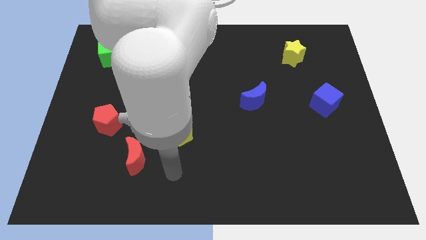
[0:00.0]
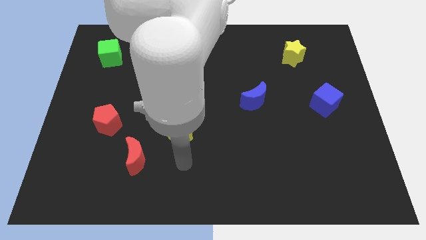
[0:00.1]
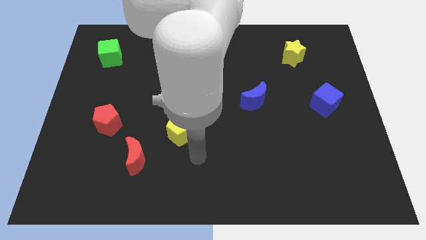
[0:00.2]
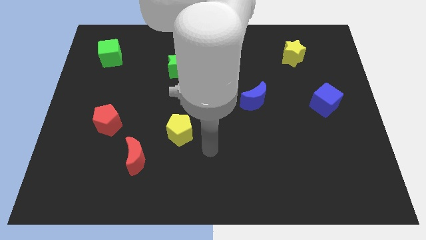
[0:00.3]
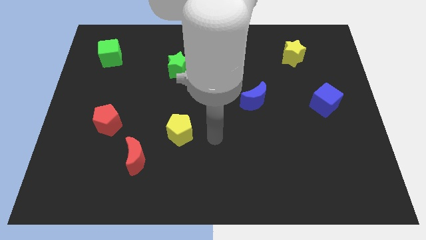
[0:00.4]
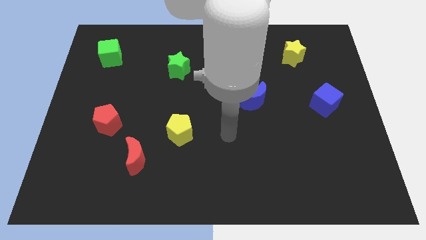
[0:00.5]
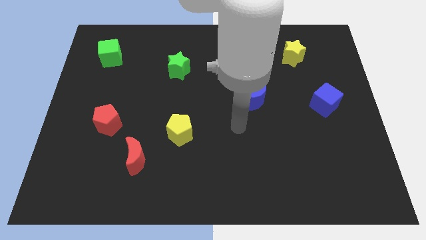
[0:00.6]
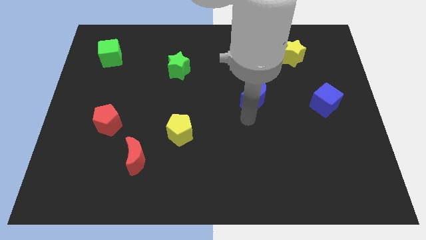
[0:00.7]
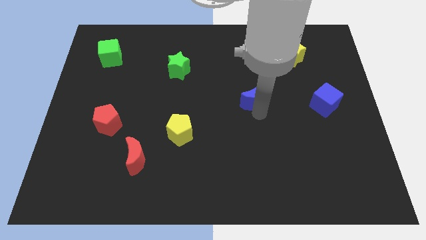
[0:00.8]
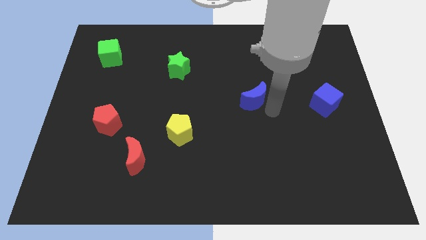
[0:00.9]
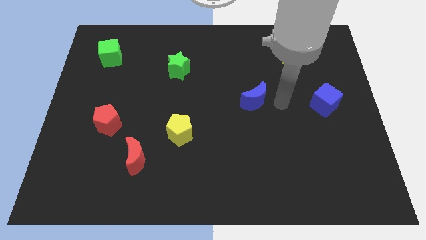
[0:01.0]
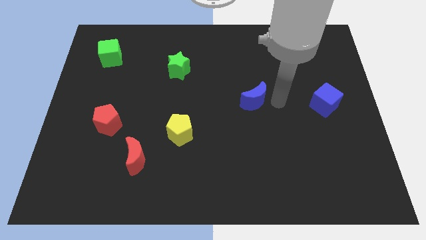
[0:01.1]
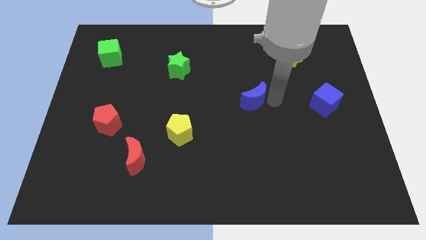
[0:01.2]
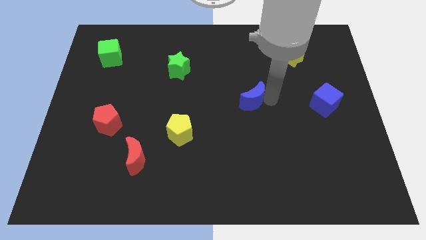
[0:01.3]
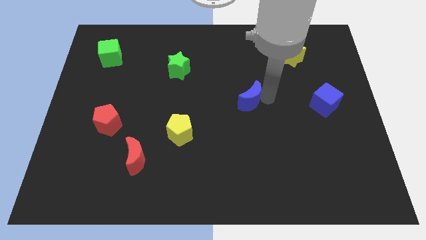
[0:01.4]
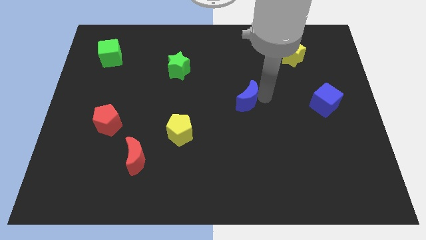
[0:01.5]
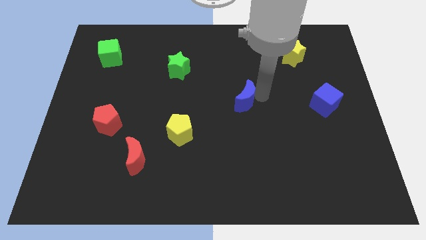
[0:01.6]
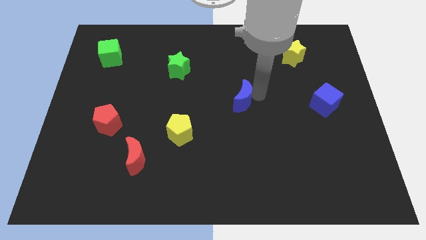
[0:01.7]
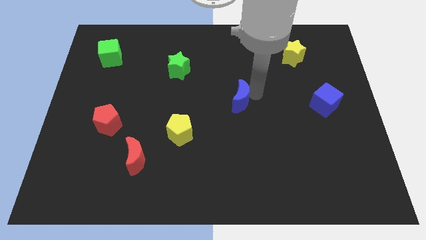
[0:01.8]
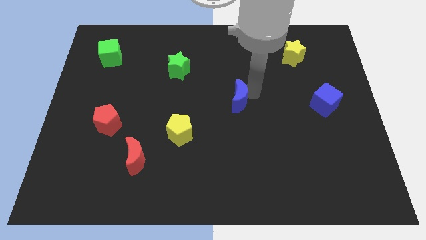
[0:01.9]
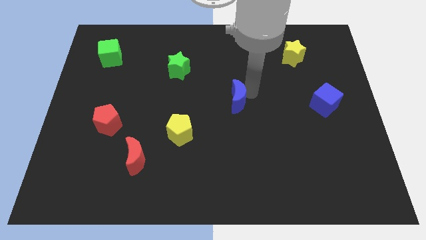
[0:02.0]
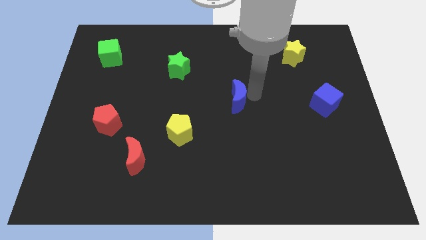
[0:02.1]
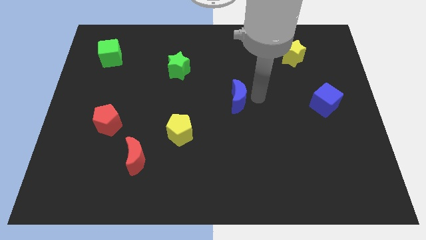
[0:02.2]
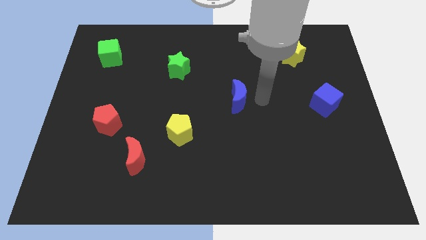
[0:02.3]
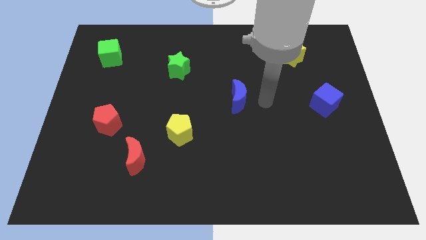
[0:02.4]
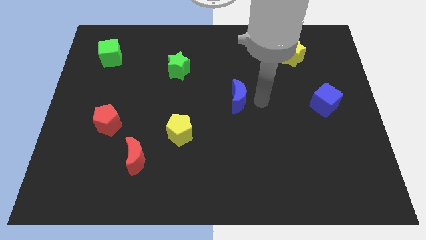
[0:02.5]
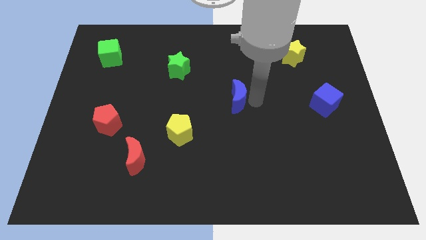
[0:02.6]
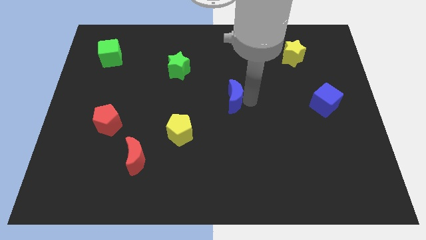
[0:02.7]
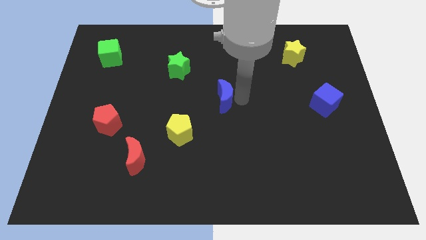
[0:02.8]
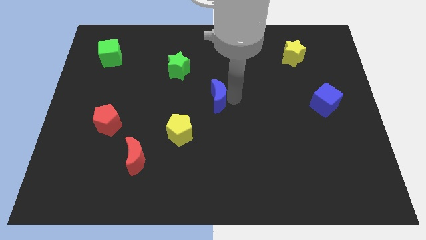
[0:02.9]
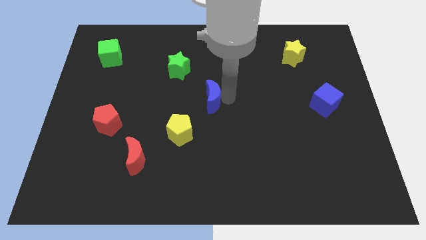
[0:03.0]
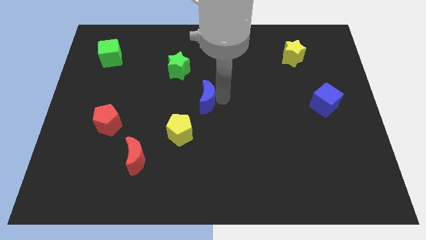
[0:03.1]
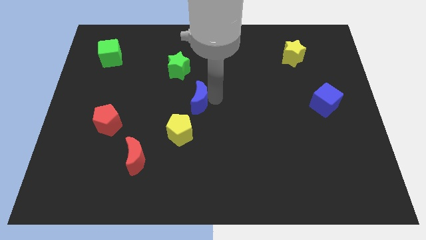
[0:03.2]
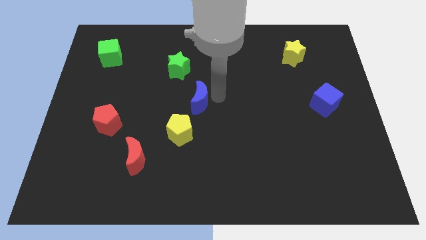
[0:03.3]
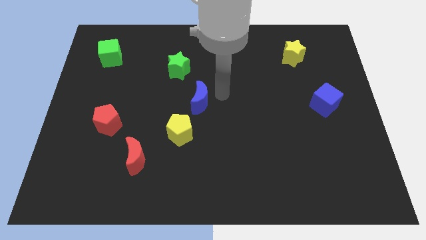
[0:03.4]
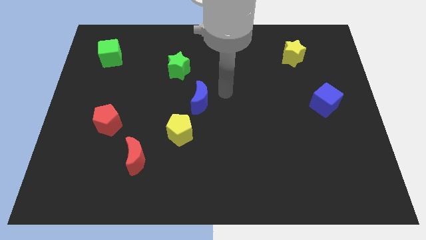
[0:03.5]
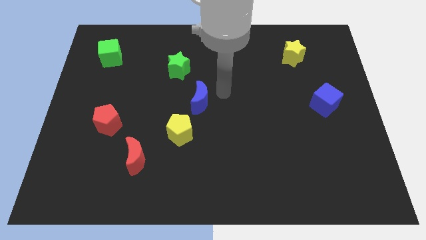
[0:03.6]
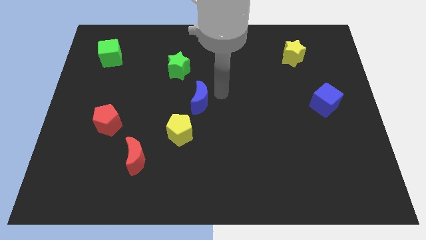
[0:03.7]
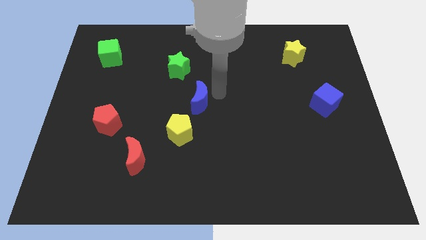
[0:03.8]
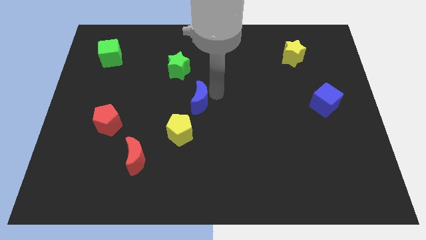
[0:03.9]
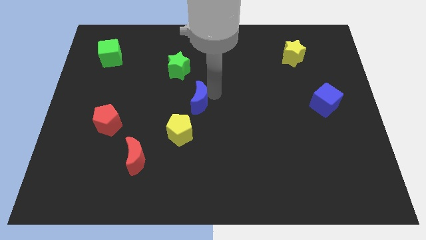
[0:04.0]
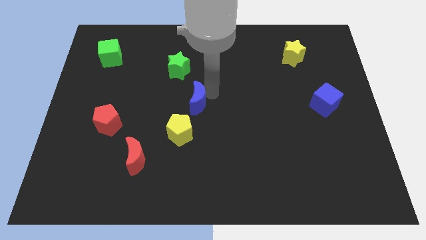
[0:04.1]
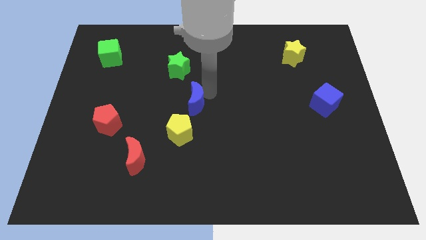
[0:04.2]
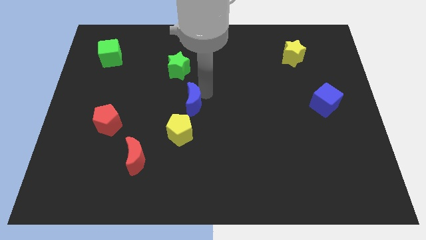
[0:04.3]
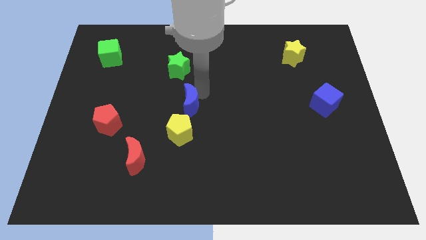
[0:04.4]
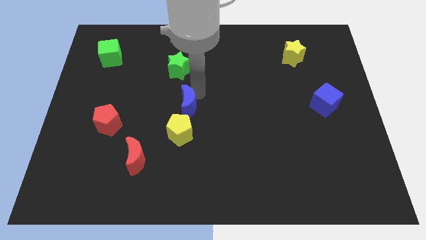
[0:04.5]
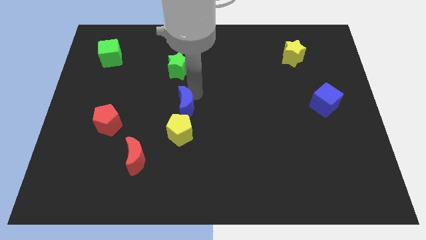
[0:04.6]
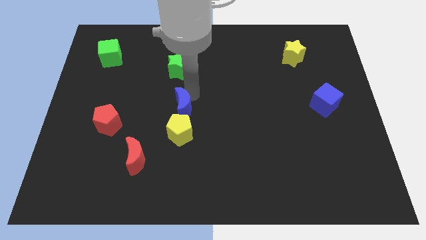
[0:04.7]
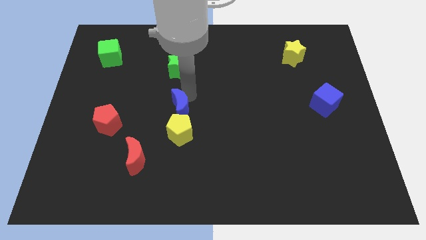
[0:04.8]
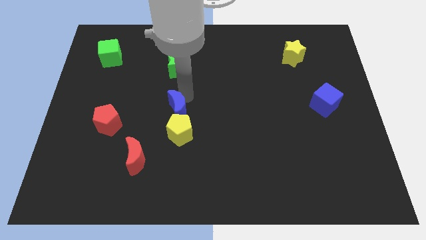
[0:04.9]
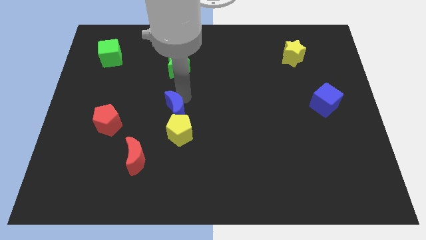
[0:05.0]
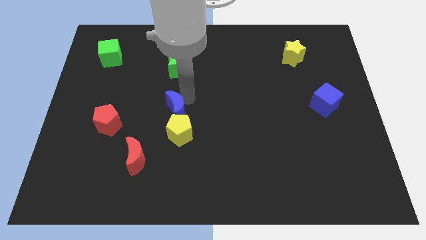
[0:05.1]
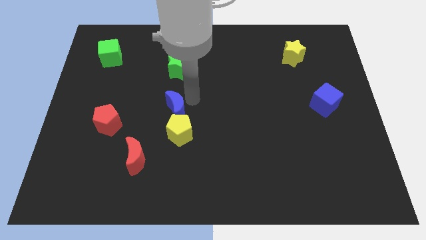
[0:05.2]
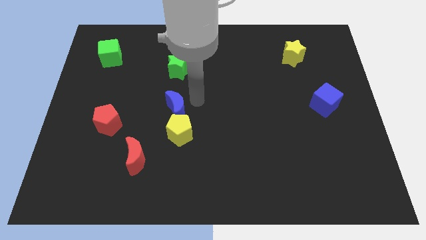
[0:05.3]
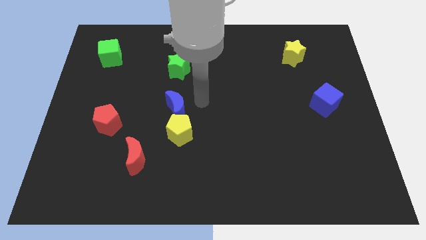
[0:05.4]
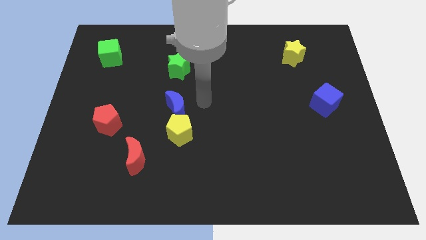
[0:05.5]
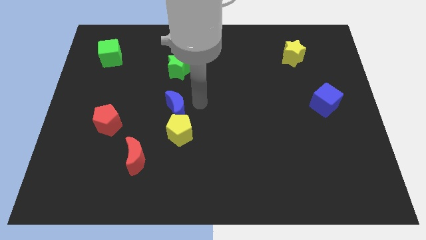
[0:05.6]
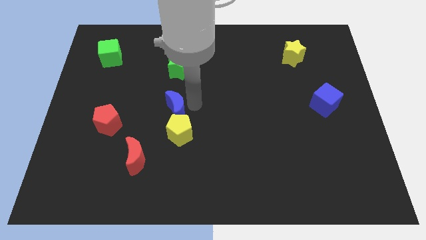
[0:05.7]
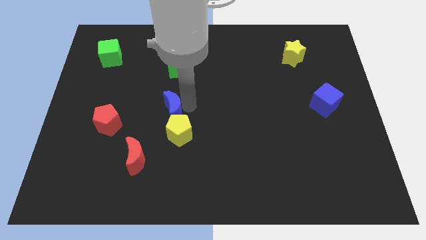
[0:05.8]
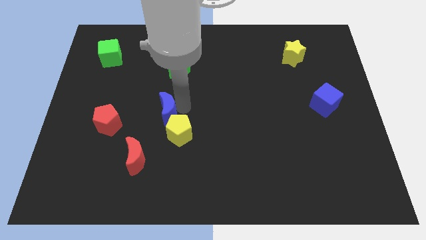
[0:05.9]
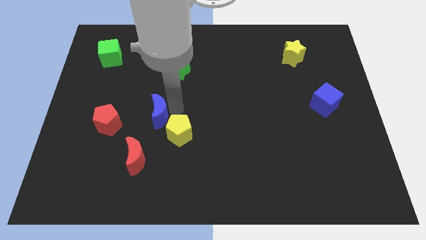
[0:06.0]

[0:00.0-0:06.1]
put the blue moon above the red moon

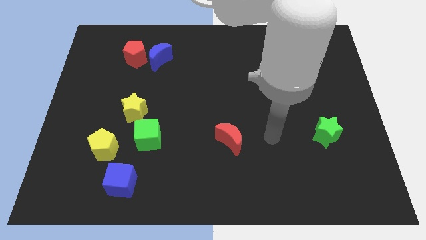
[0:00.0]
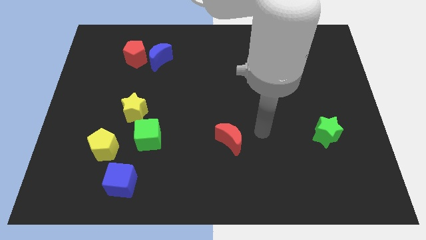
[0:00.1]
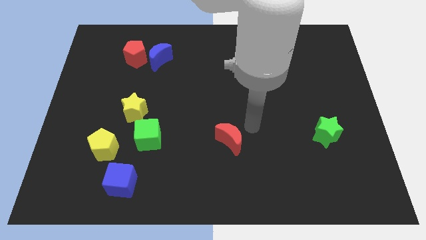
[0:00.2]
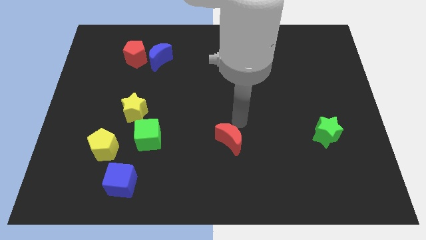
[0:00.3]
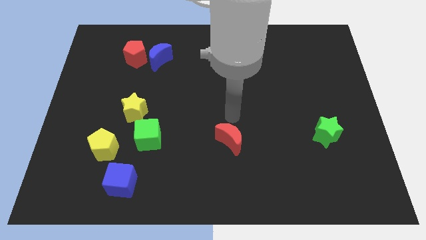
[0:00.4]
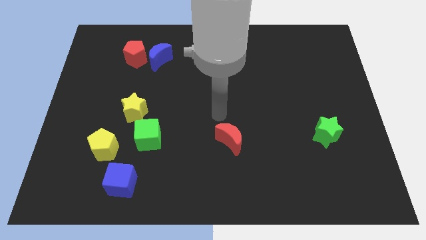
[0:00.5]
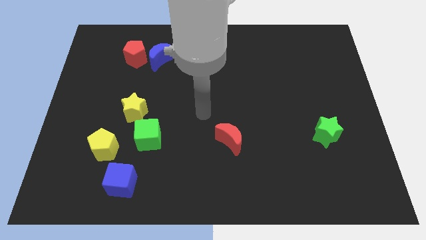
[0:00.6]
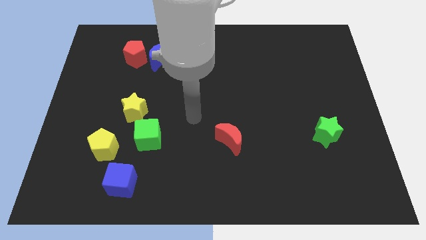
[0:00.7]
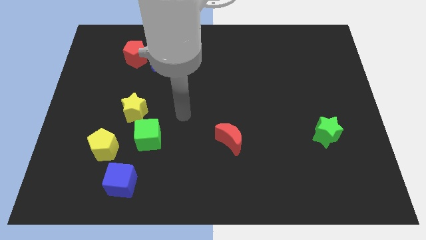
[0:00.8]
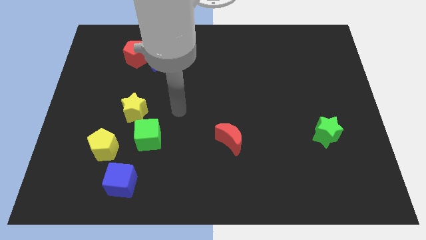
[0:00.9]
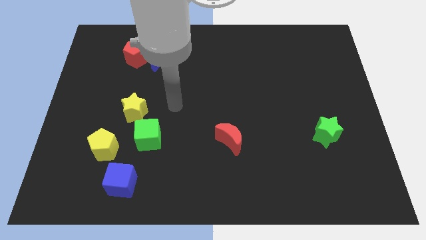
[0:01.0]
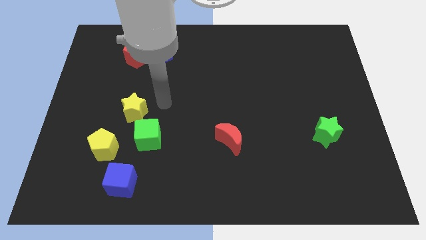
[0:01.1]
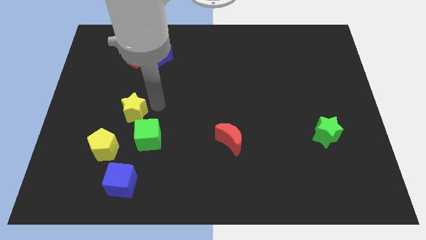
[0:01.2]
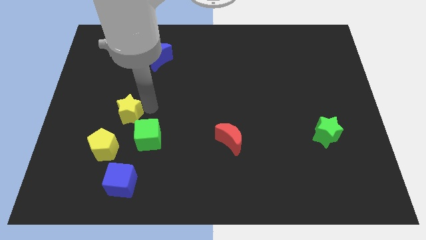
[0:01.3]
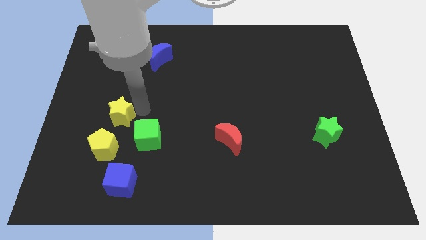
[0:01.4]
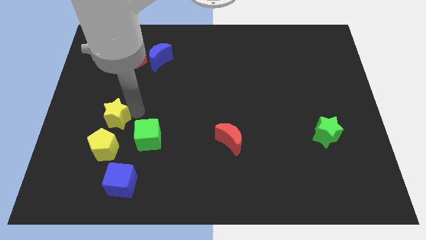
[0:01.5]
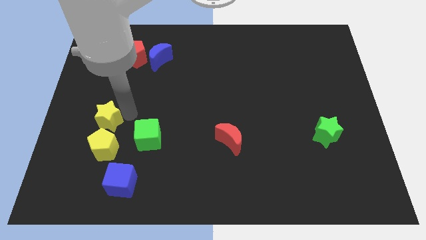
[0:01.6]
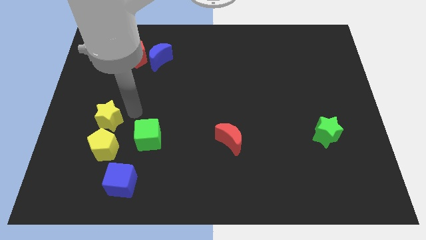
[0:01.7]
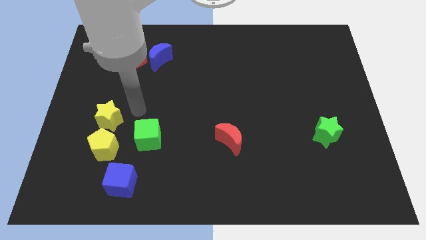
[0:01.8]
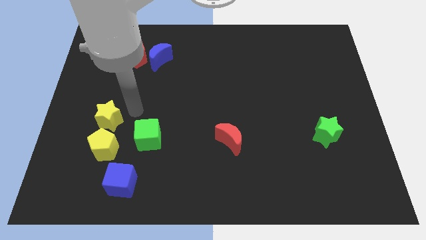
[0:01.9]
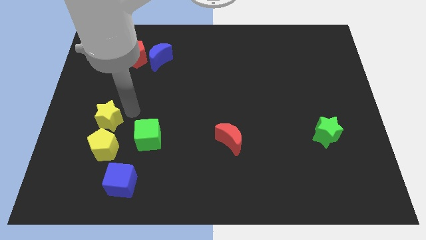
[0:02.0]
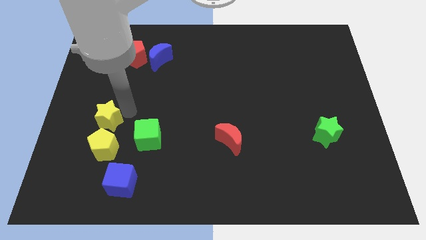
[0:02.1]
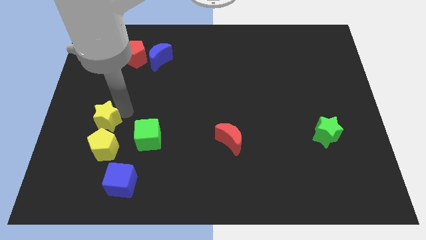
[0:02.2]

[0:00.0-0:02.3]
put the yellow star to the top left side of the yellow pentagon
